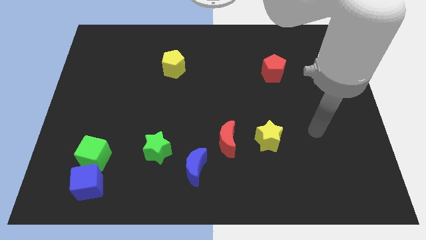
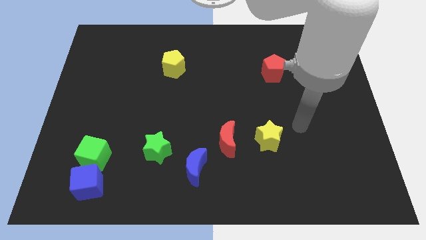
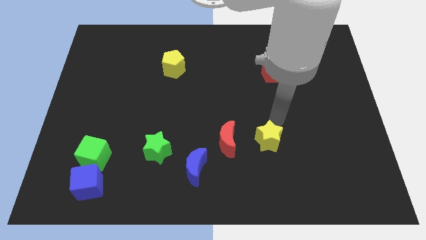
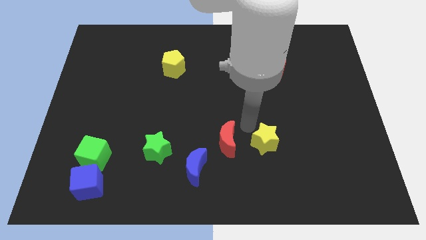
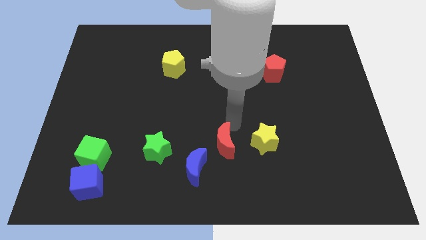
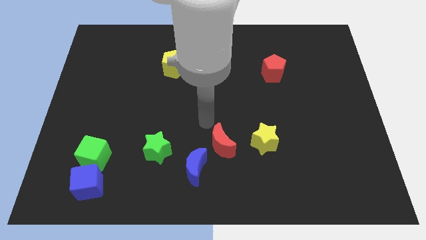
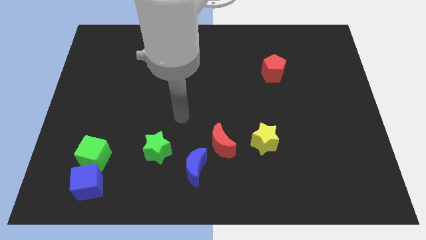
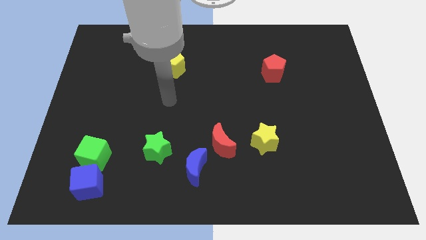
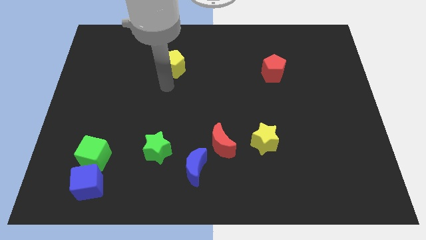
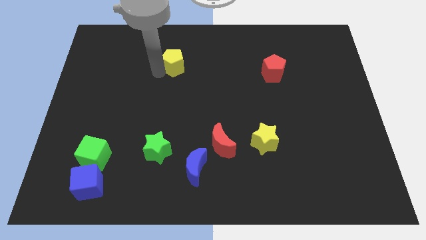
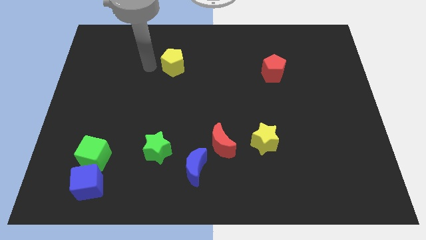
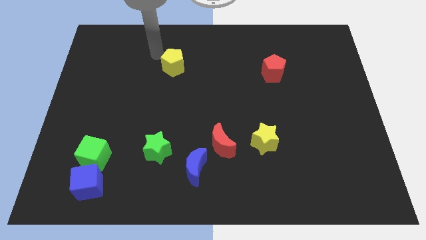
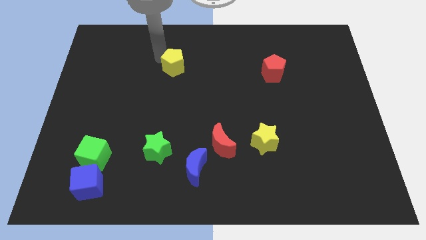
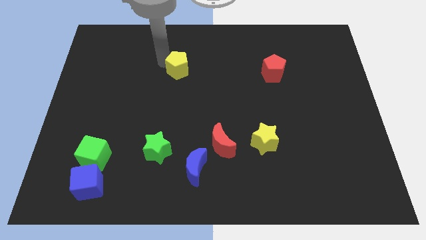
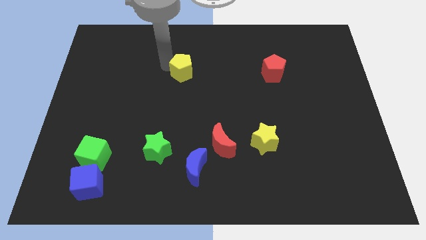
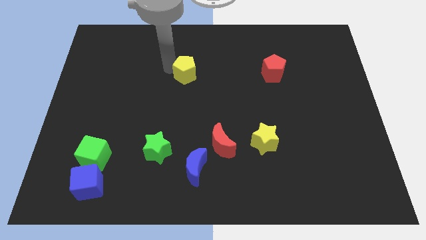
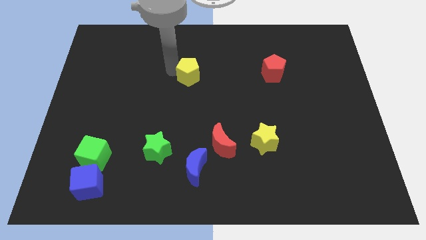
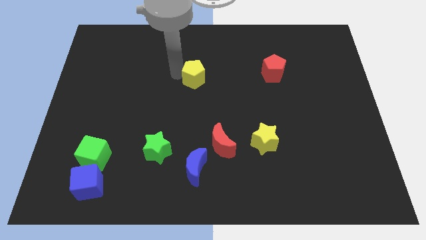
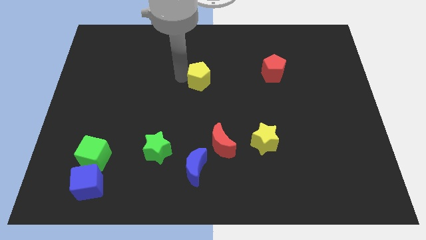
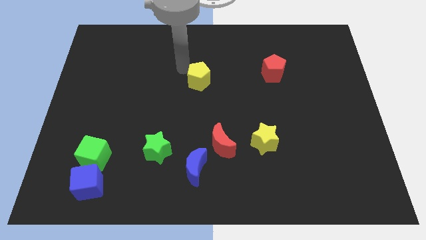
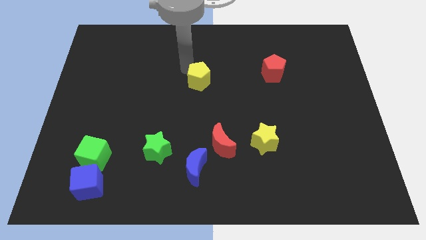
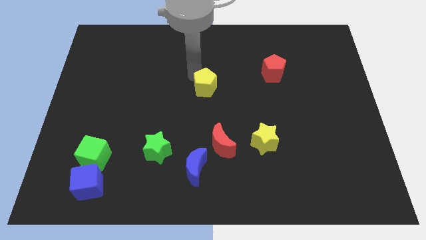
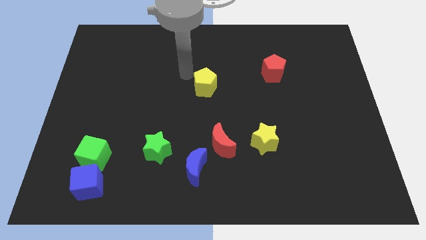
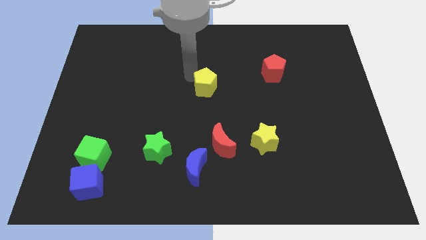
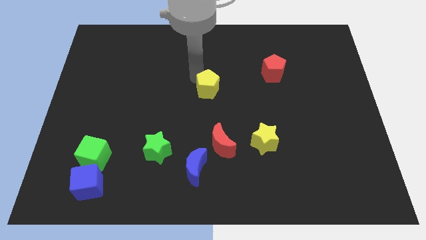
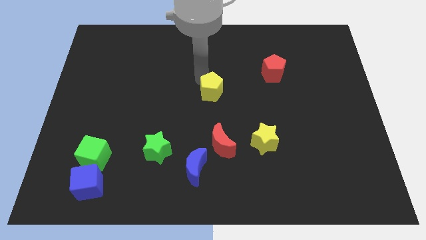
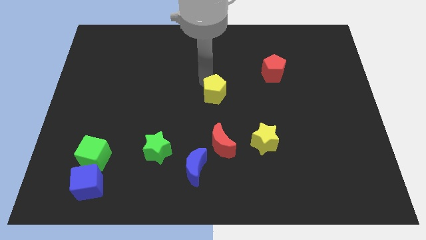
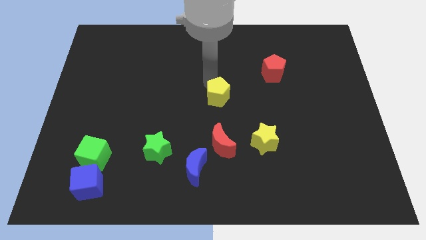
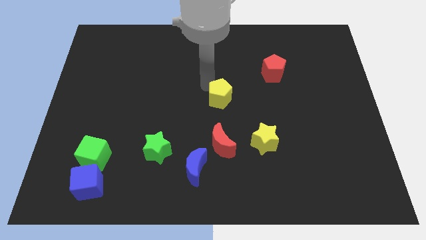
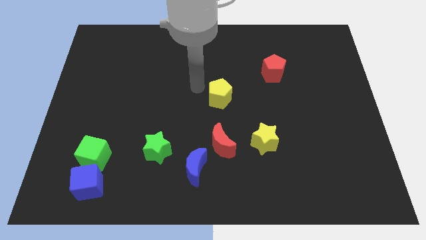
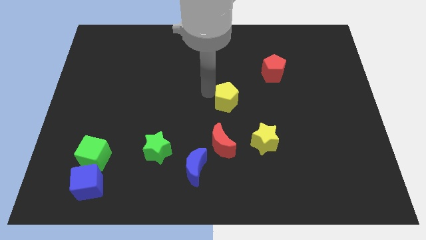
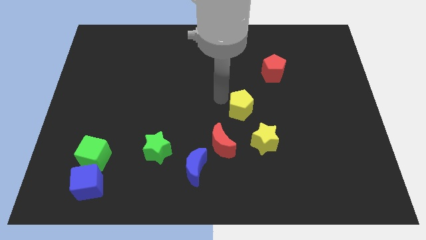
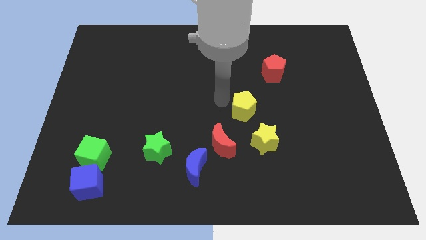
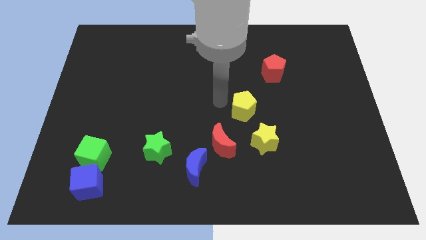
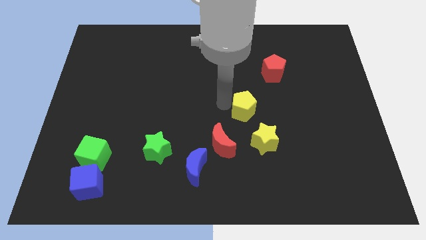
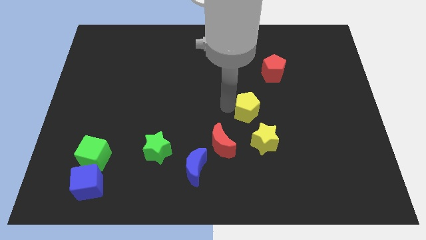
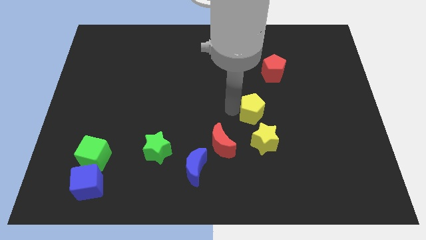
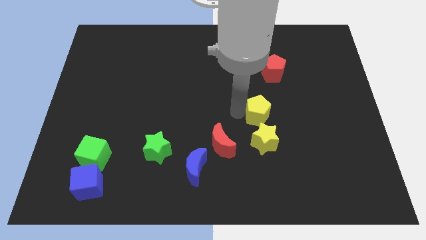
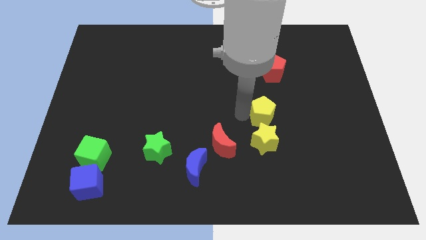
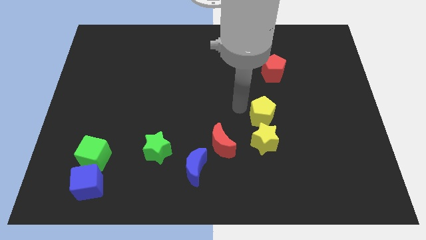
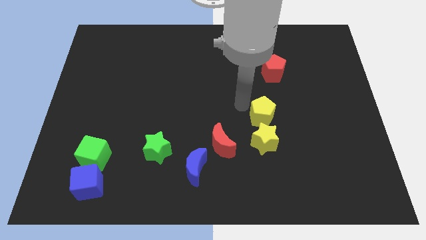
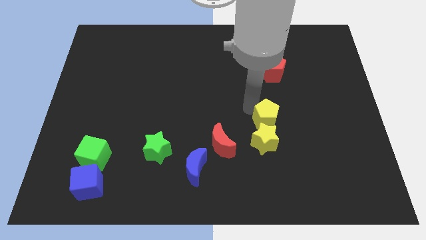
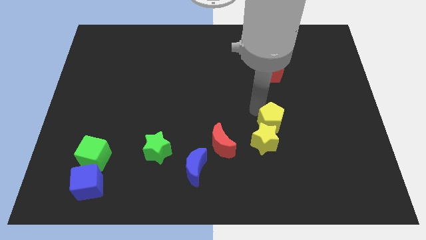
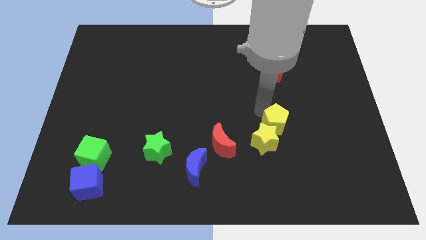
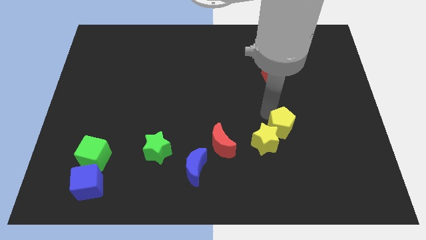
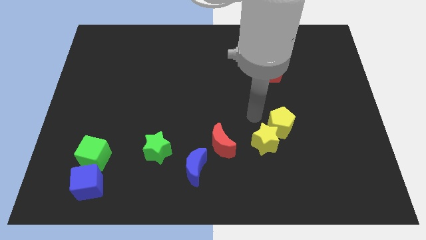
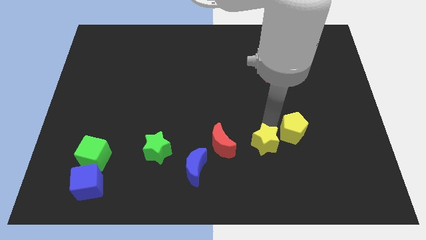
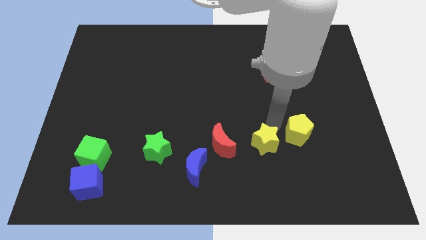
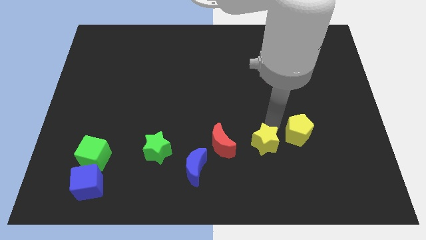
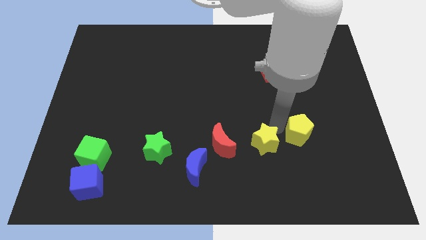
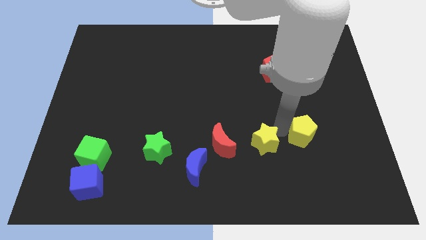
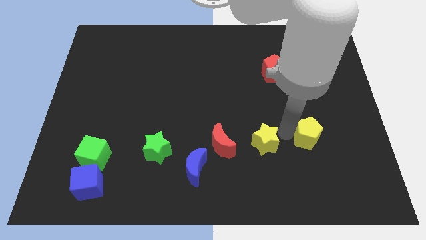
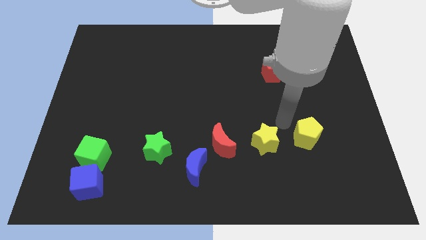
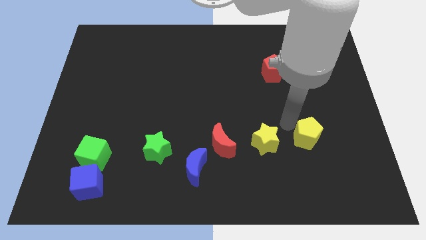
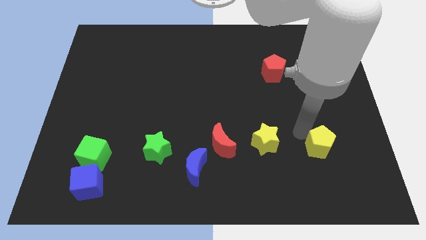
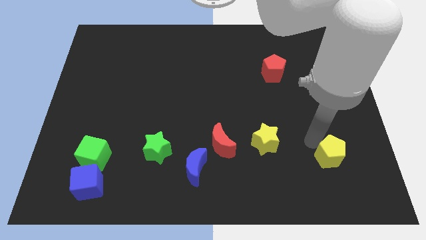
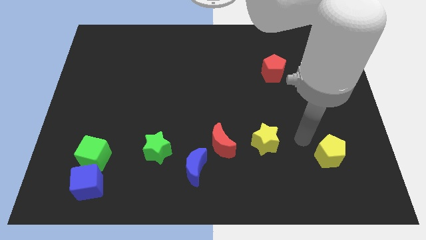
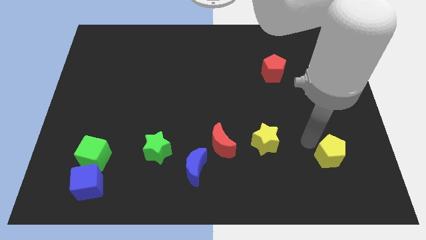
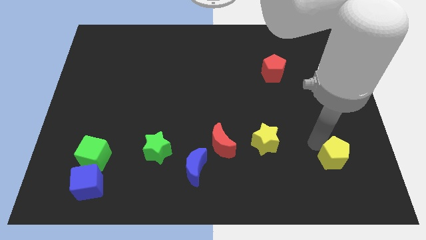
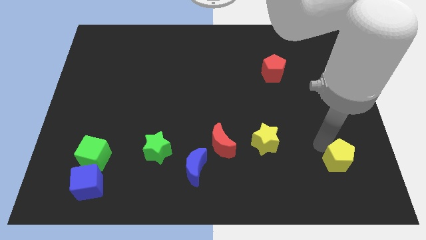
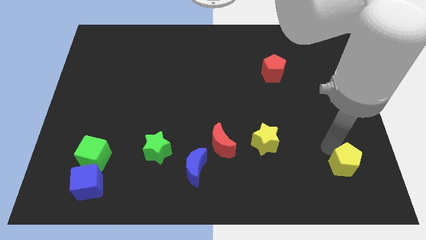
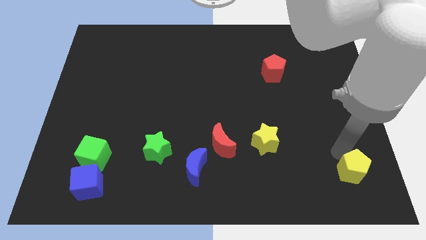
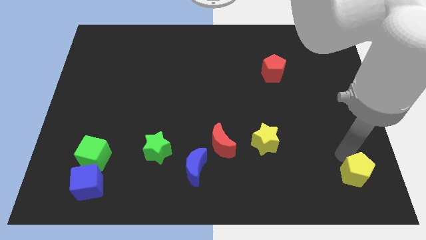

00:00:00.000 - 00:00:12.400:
put the yellow pentagon to the bottom right

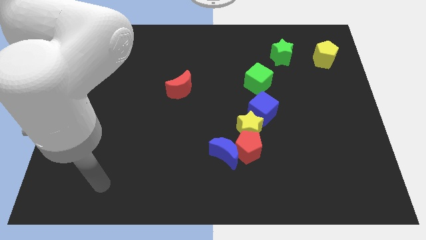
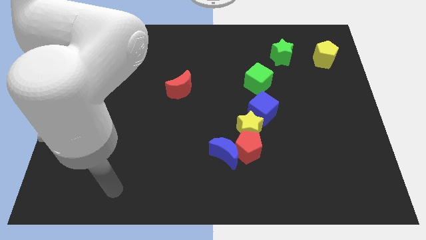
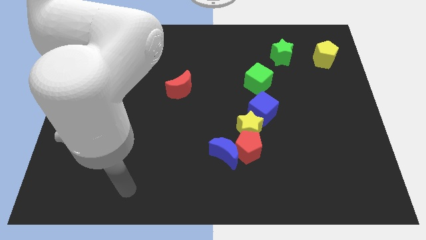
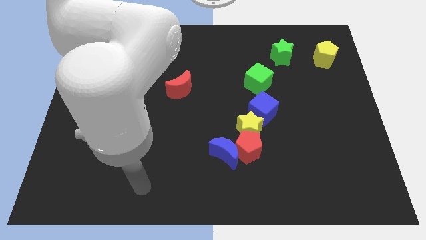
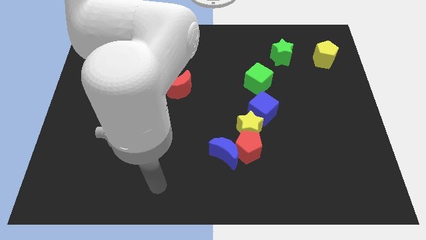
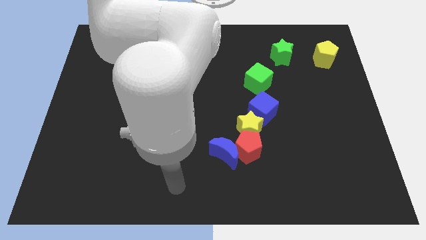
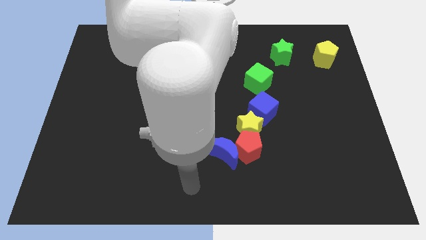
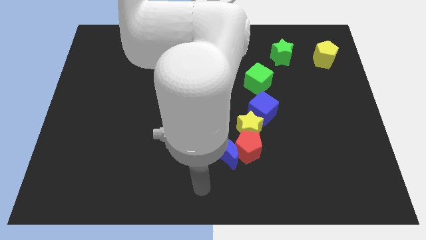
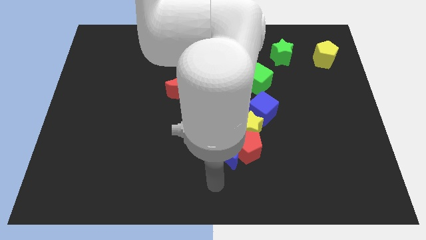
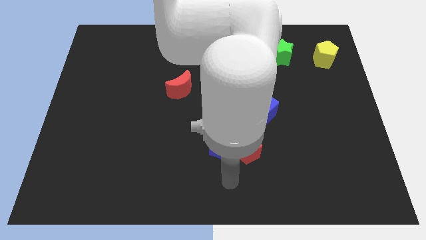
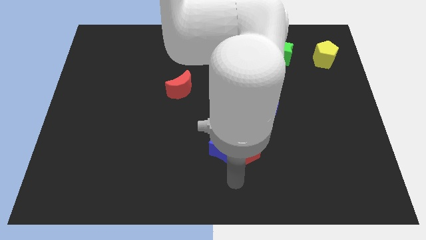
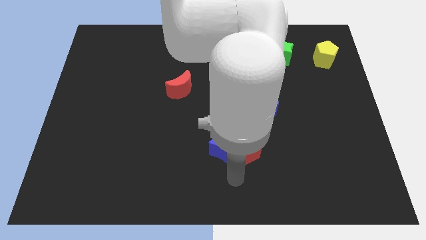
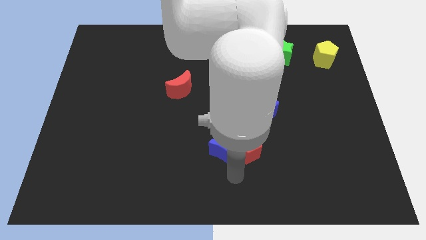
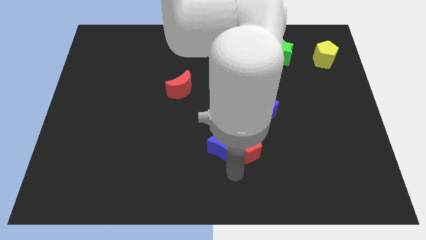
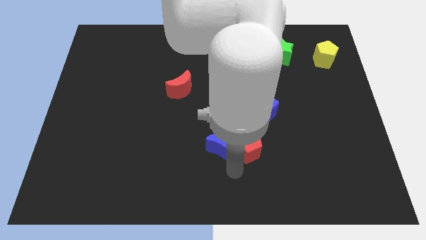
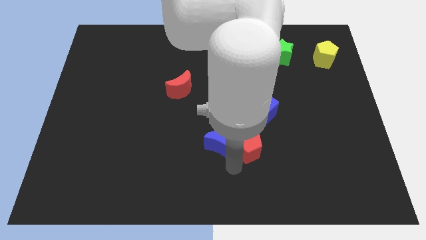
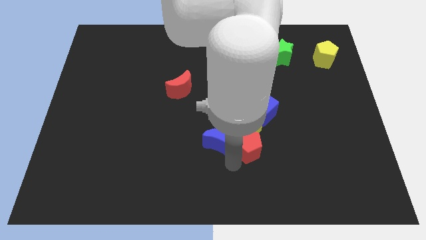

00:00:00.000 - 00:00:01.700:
put the blue moon to the center
